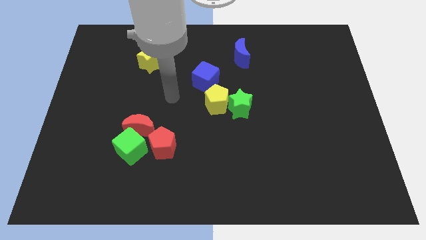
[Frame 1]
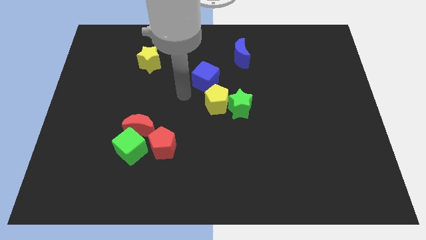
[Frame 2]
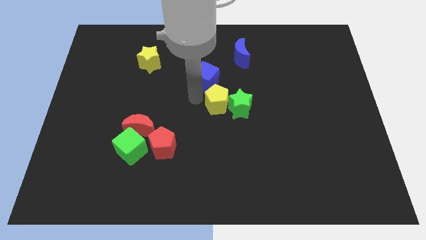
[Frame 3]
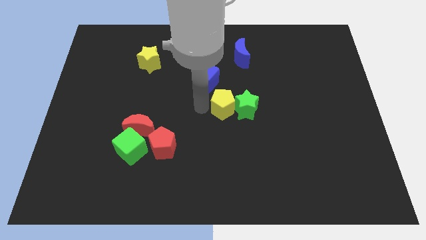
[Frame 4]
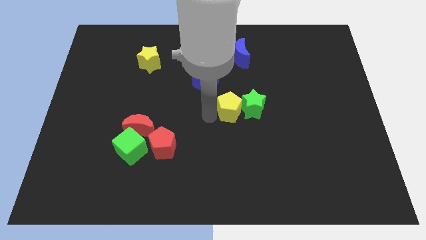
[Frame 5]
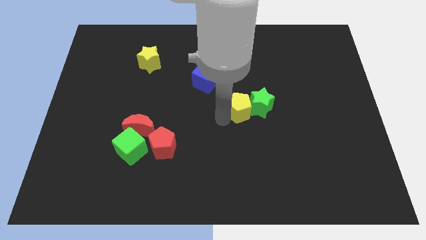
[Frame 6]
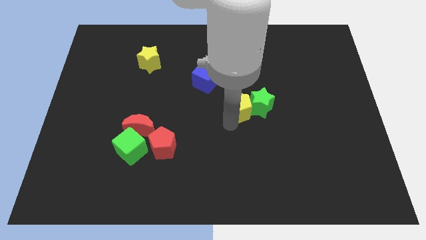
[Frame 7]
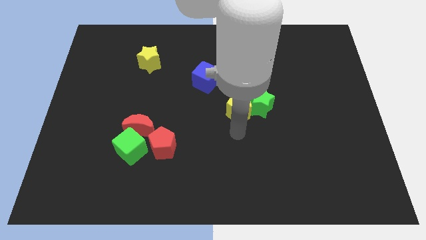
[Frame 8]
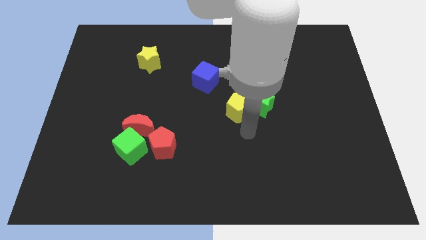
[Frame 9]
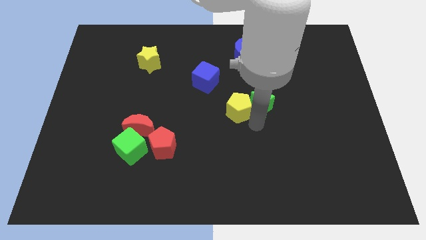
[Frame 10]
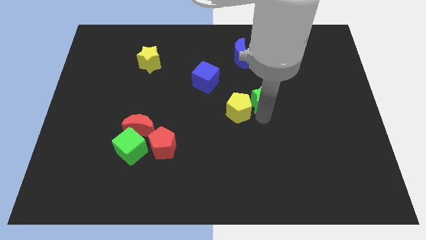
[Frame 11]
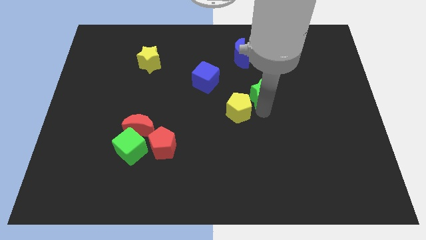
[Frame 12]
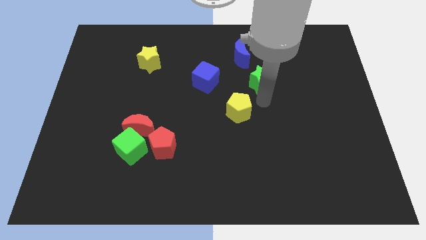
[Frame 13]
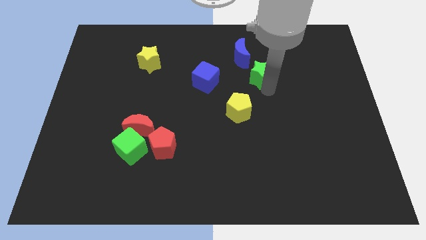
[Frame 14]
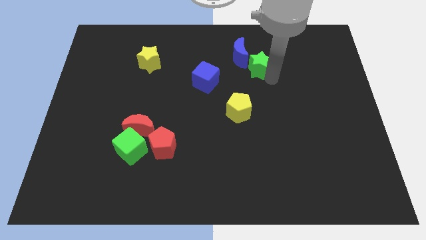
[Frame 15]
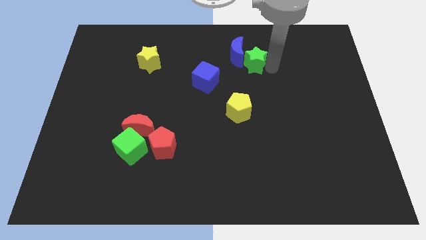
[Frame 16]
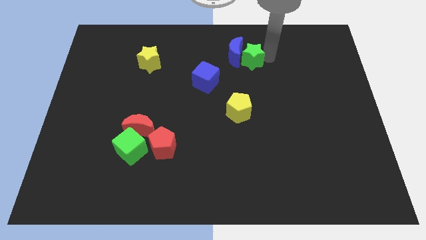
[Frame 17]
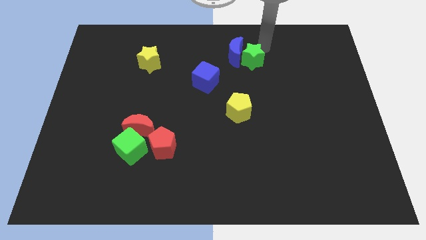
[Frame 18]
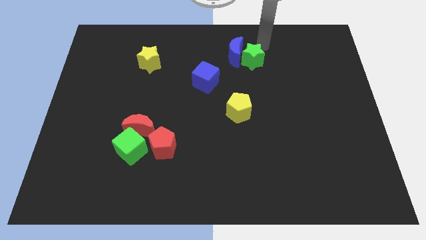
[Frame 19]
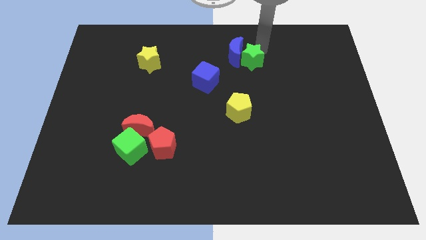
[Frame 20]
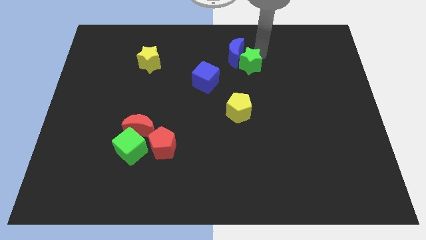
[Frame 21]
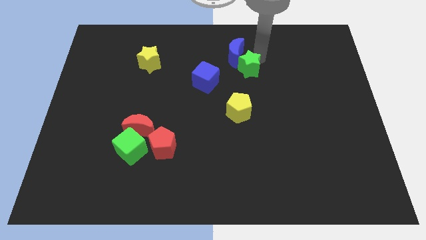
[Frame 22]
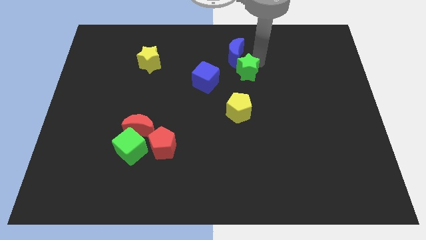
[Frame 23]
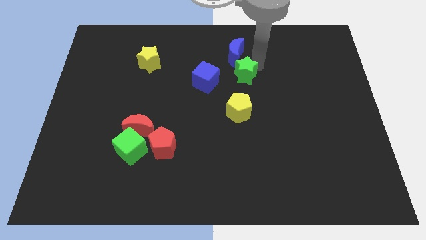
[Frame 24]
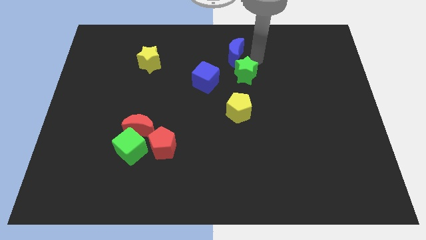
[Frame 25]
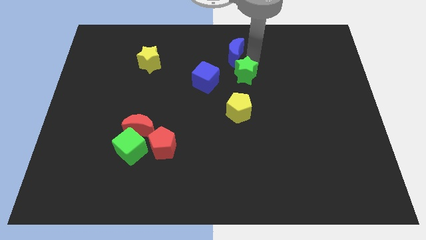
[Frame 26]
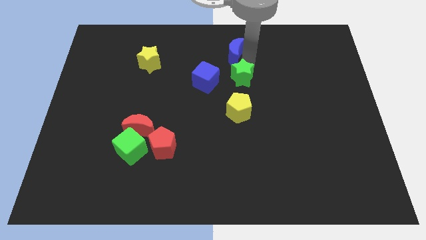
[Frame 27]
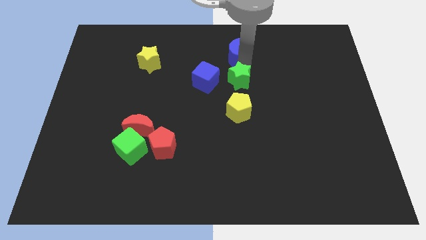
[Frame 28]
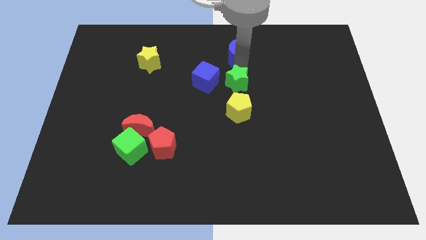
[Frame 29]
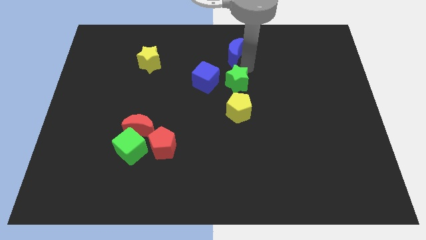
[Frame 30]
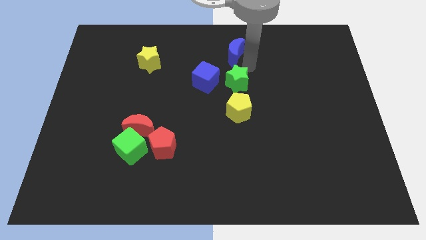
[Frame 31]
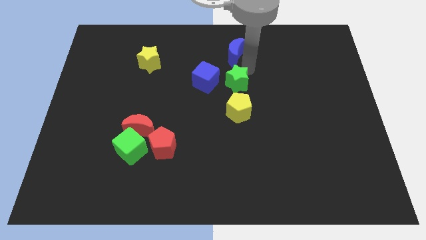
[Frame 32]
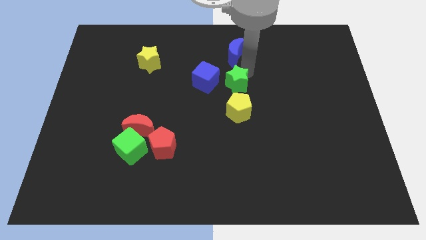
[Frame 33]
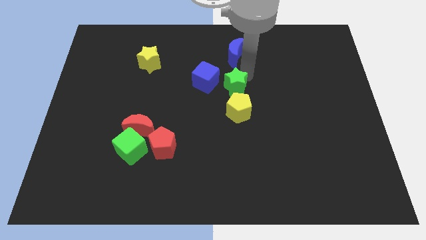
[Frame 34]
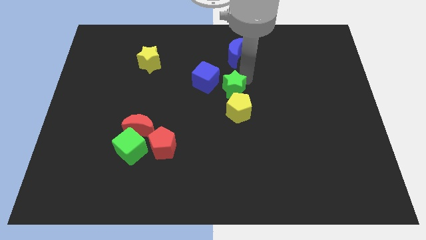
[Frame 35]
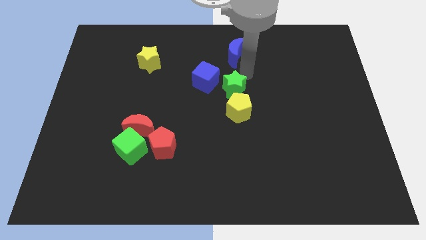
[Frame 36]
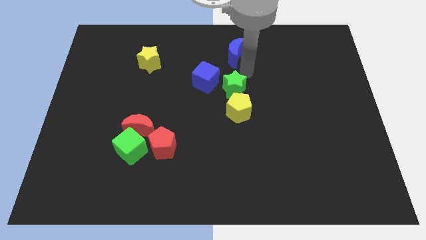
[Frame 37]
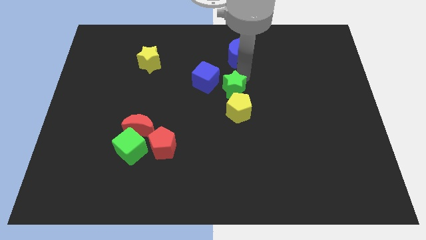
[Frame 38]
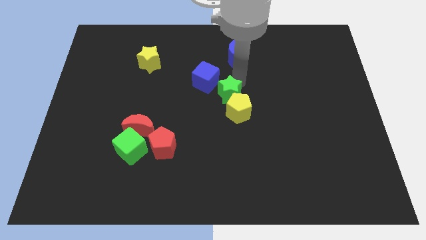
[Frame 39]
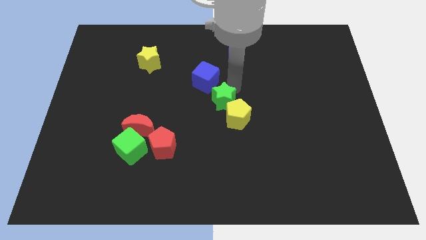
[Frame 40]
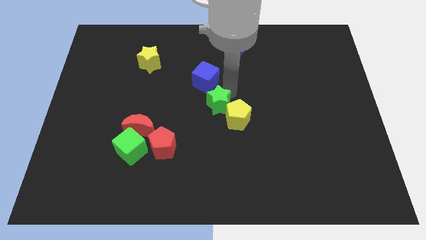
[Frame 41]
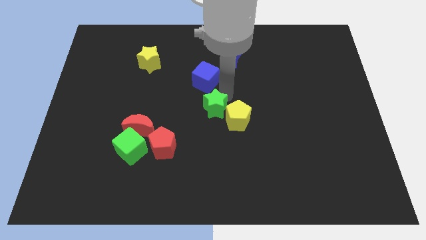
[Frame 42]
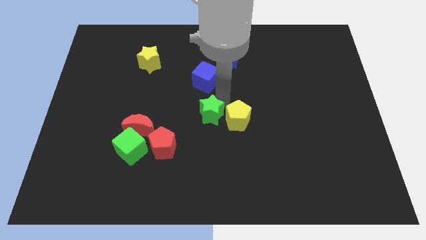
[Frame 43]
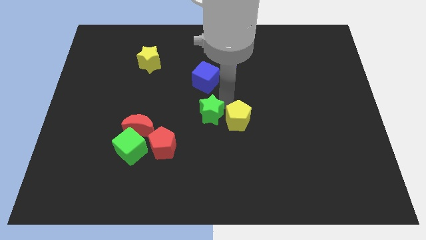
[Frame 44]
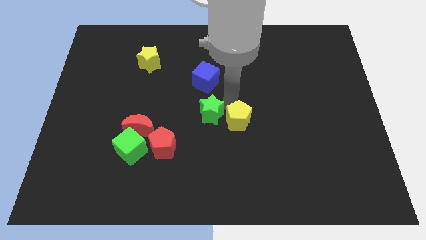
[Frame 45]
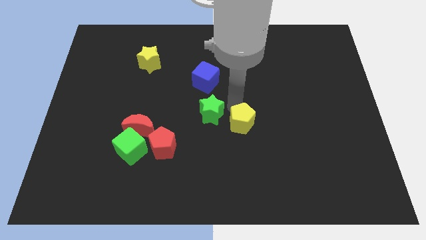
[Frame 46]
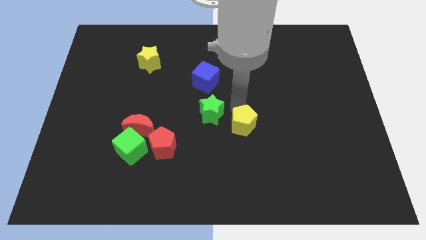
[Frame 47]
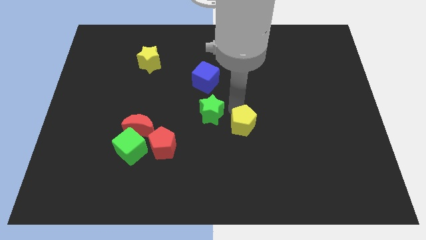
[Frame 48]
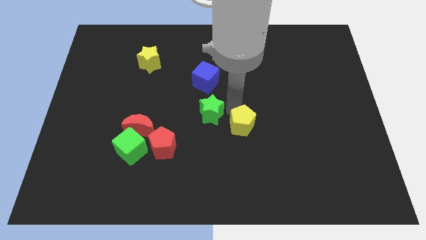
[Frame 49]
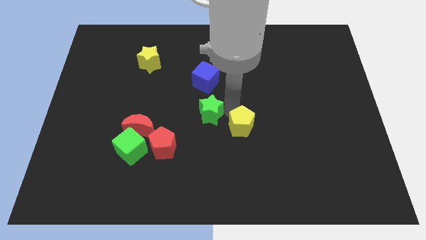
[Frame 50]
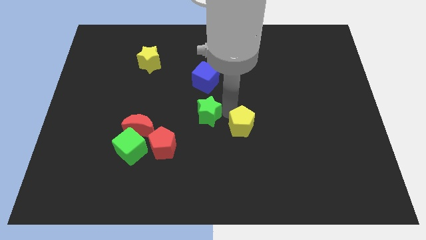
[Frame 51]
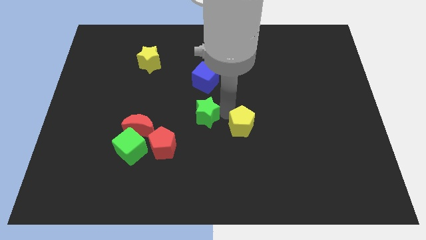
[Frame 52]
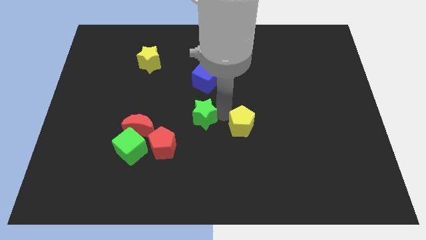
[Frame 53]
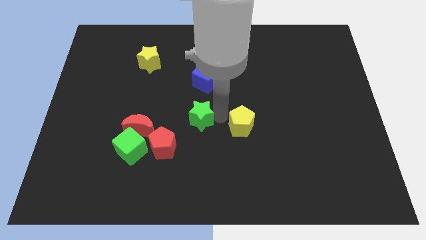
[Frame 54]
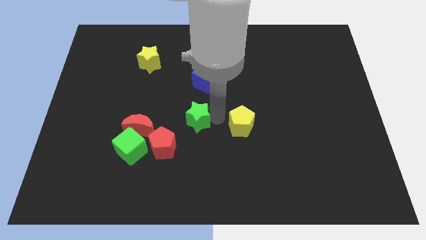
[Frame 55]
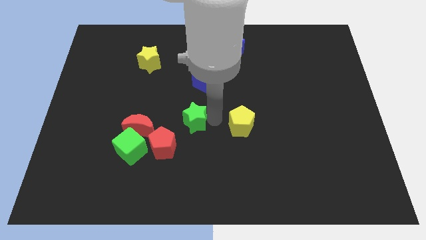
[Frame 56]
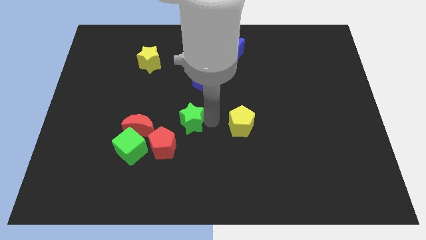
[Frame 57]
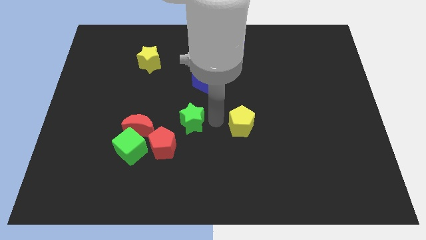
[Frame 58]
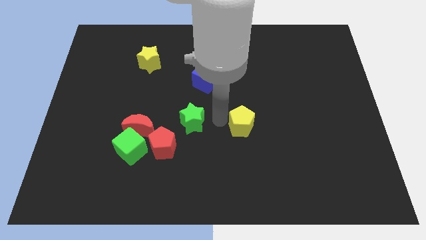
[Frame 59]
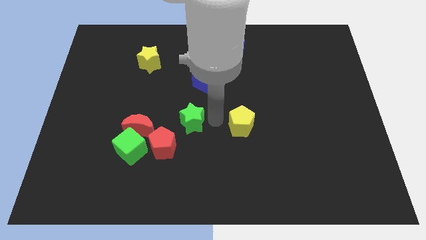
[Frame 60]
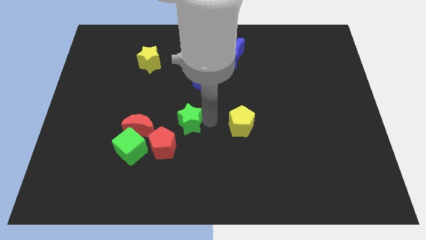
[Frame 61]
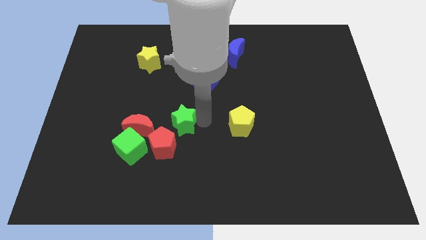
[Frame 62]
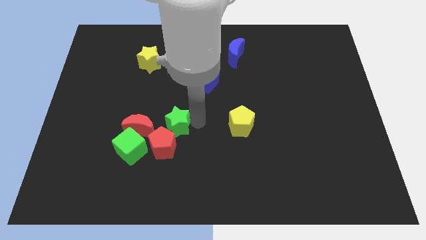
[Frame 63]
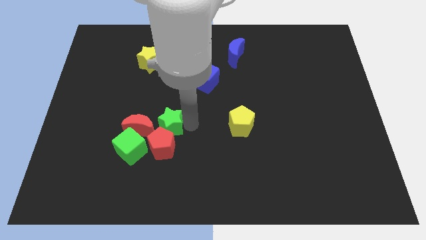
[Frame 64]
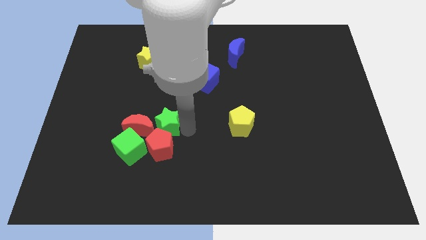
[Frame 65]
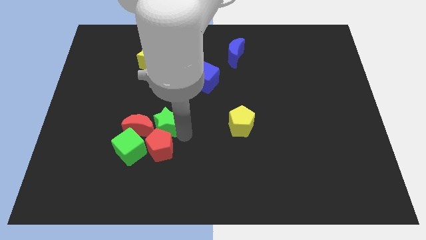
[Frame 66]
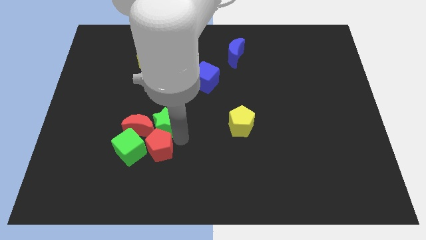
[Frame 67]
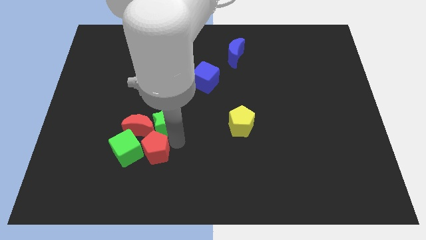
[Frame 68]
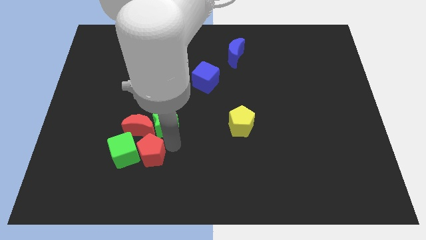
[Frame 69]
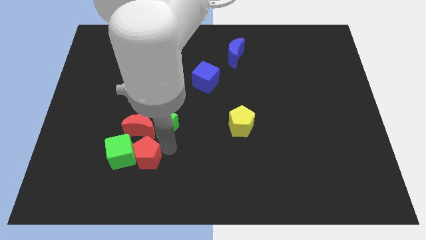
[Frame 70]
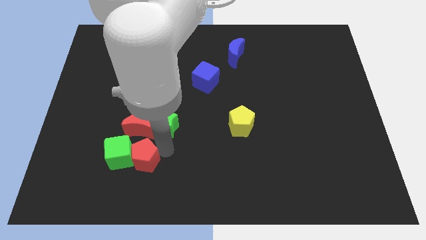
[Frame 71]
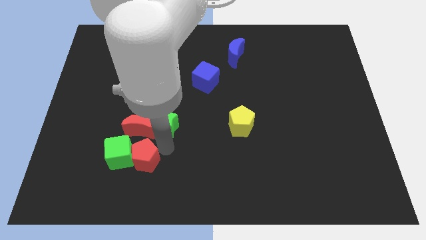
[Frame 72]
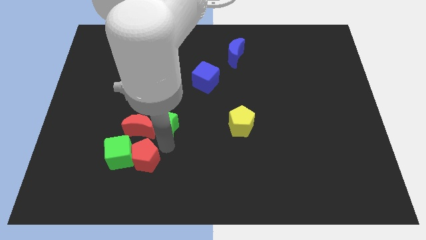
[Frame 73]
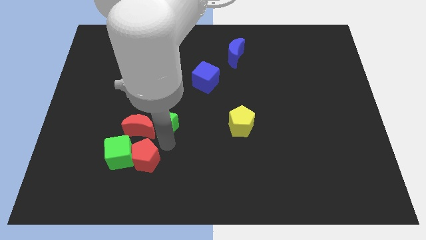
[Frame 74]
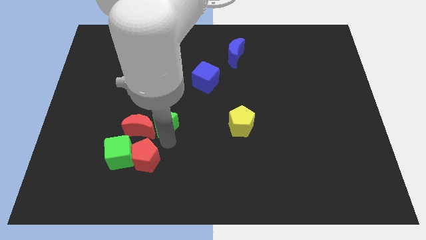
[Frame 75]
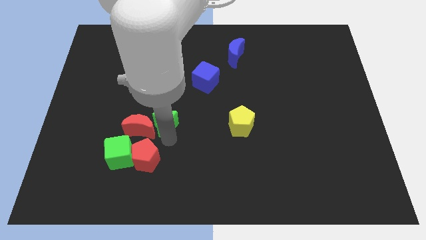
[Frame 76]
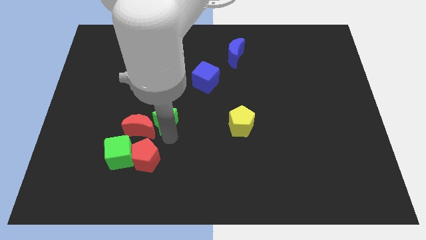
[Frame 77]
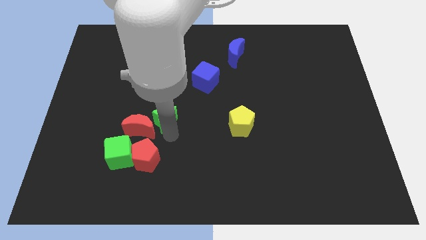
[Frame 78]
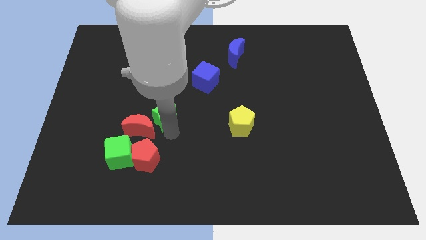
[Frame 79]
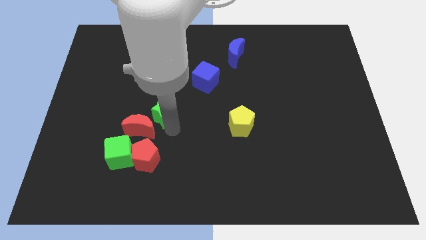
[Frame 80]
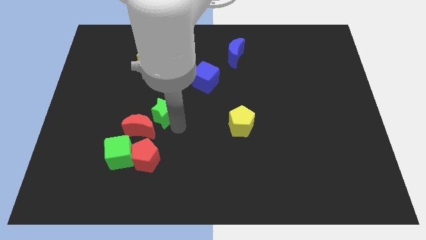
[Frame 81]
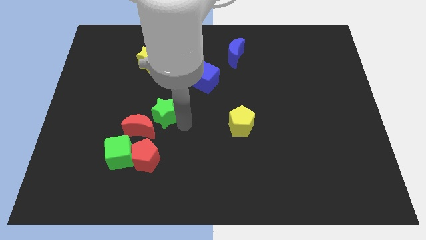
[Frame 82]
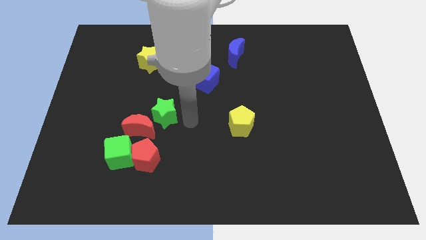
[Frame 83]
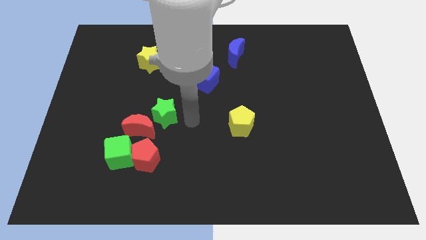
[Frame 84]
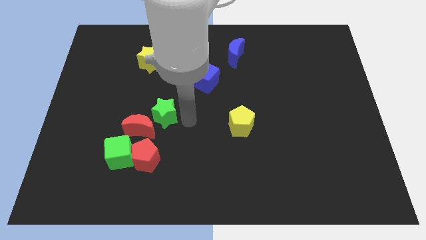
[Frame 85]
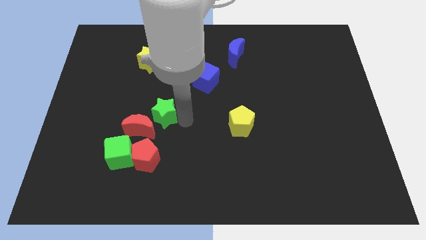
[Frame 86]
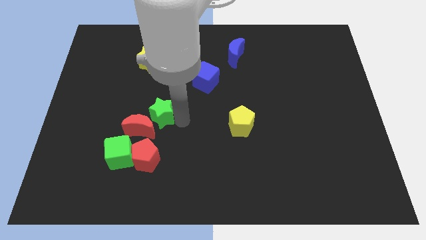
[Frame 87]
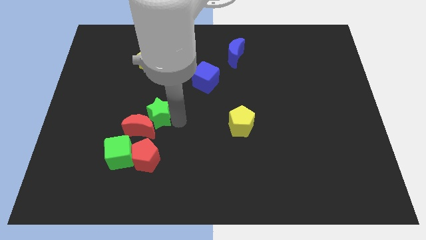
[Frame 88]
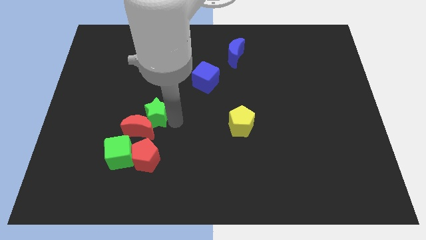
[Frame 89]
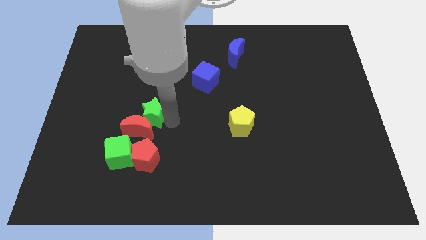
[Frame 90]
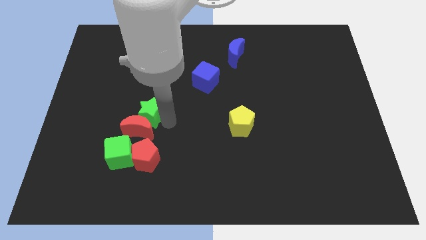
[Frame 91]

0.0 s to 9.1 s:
slide the green star left
